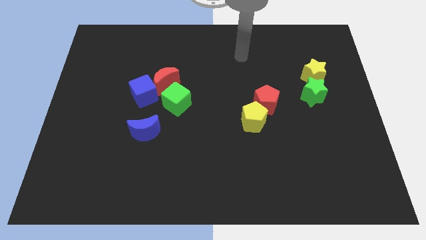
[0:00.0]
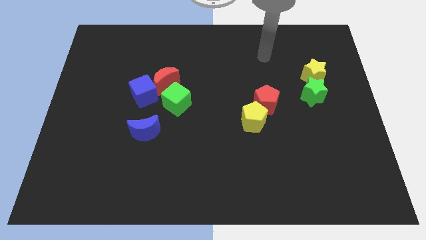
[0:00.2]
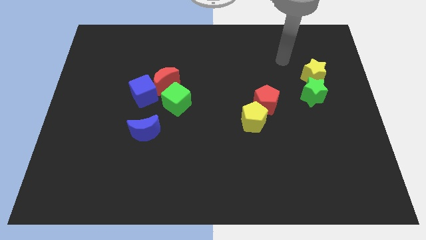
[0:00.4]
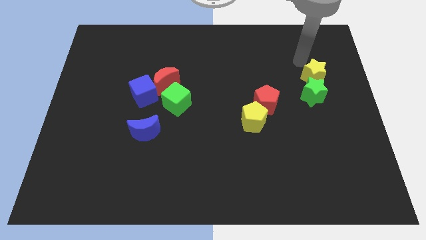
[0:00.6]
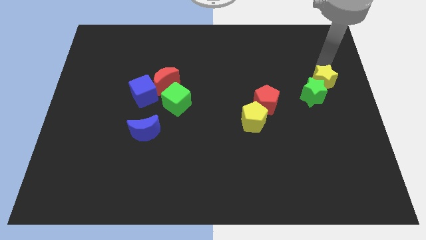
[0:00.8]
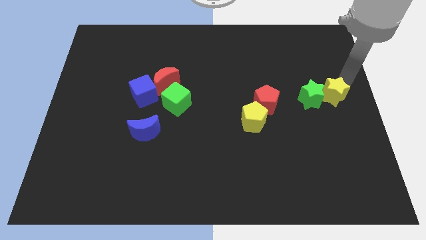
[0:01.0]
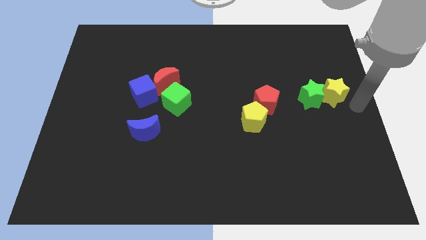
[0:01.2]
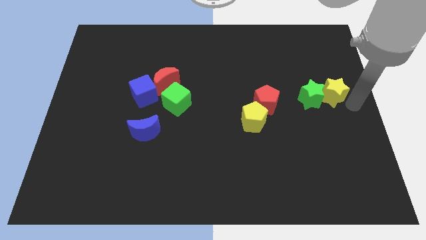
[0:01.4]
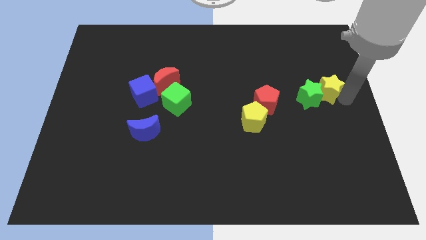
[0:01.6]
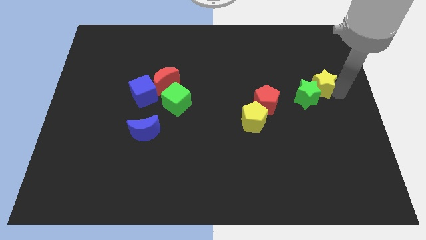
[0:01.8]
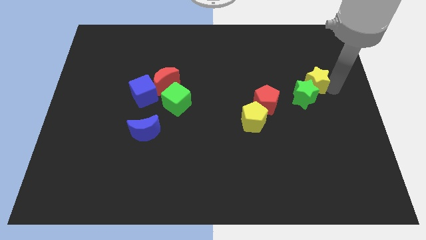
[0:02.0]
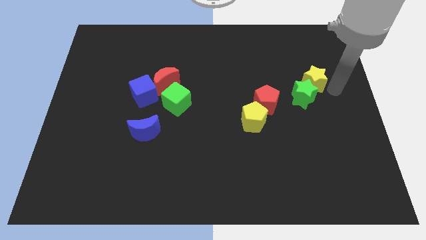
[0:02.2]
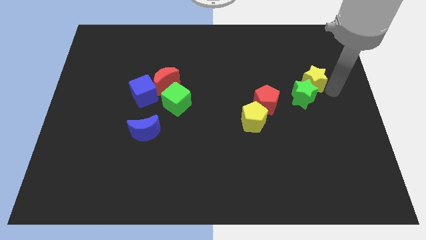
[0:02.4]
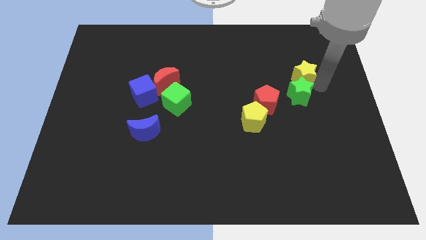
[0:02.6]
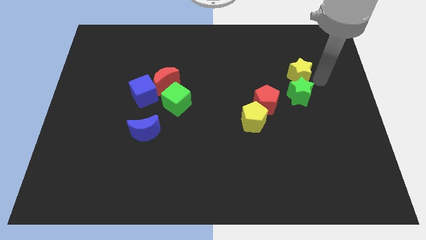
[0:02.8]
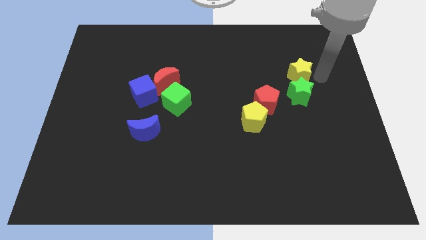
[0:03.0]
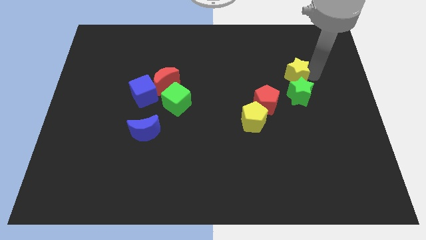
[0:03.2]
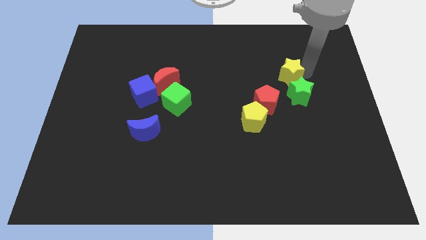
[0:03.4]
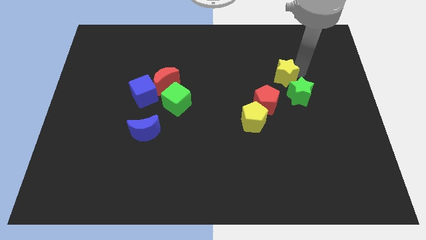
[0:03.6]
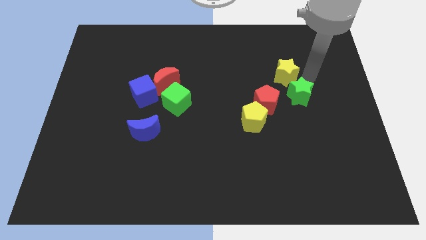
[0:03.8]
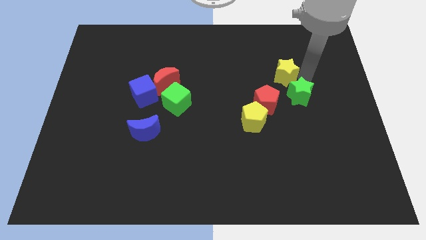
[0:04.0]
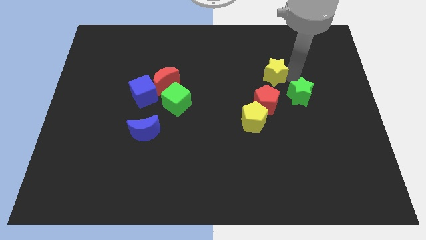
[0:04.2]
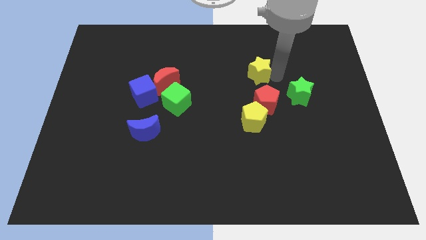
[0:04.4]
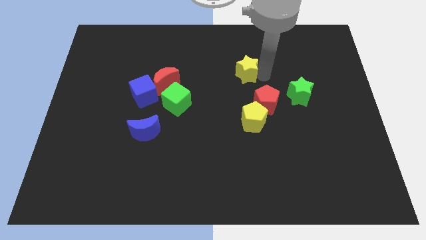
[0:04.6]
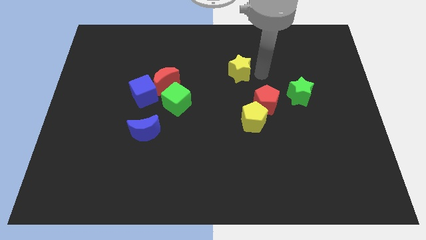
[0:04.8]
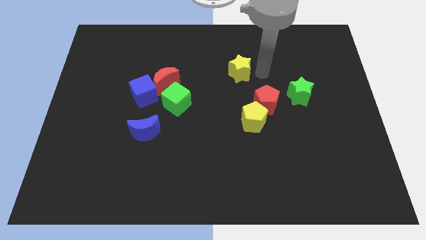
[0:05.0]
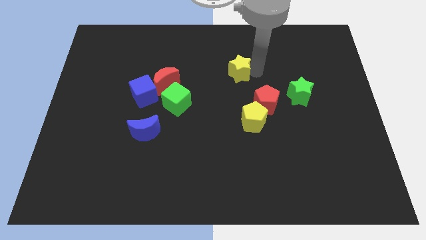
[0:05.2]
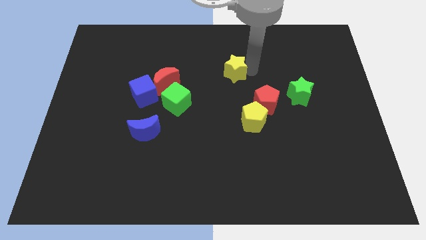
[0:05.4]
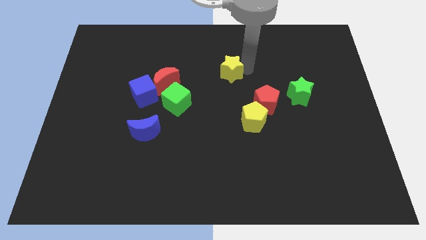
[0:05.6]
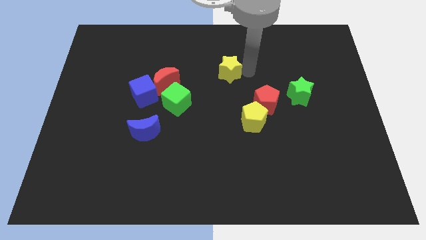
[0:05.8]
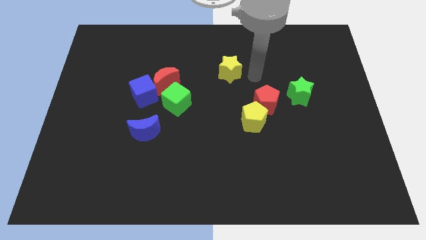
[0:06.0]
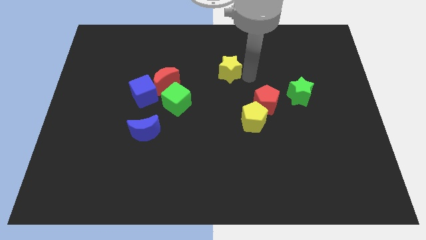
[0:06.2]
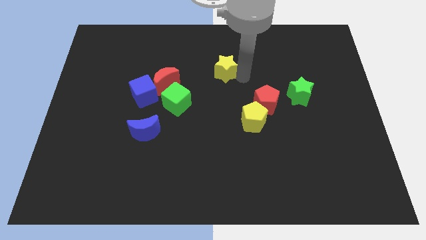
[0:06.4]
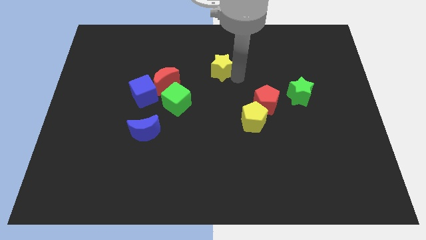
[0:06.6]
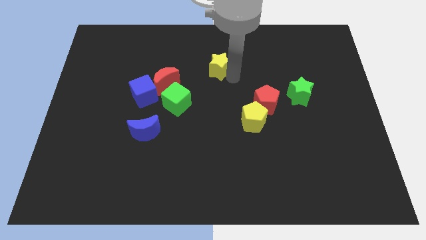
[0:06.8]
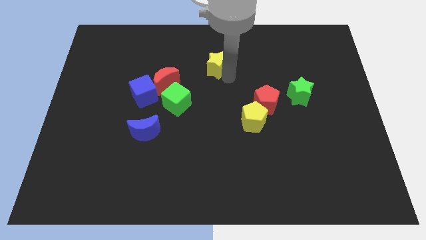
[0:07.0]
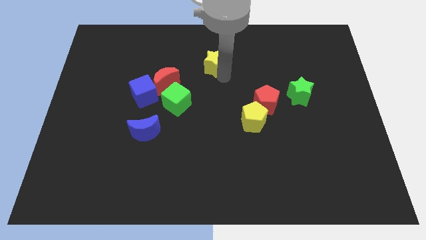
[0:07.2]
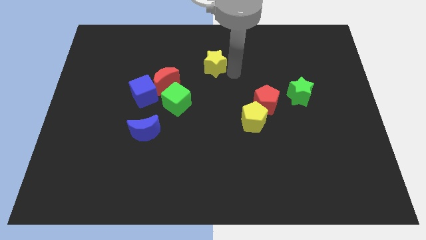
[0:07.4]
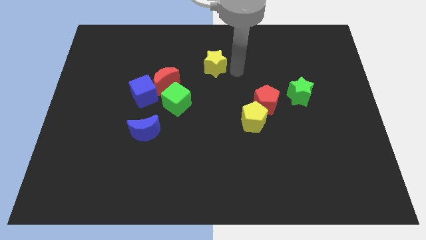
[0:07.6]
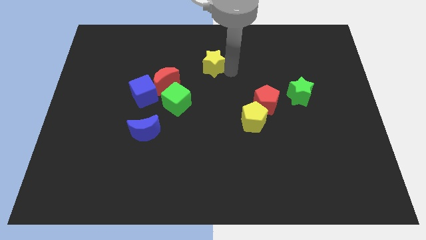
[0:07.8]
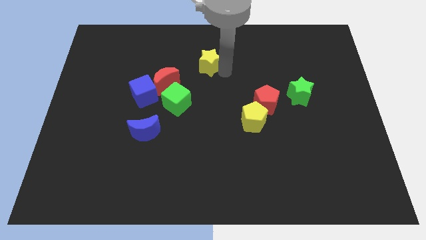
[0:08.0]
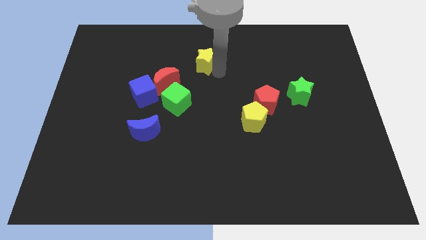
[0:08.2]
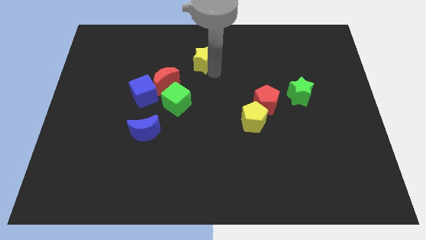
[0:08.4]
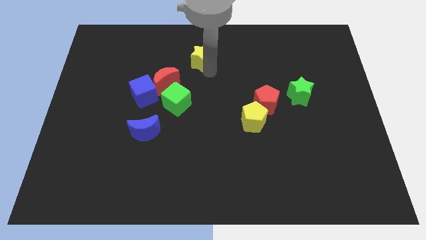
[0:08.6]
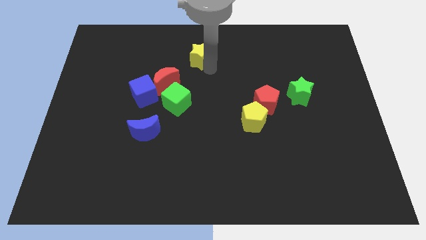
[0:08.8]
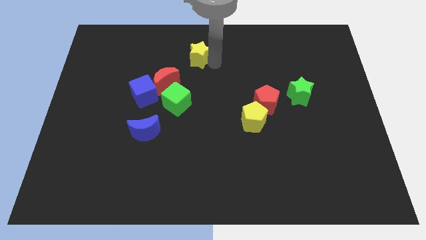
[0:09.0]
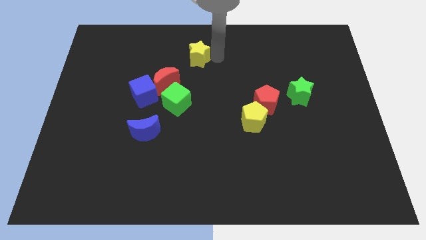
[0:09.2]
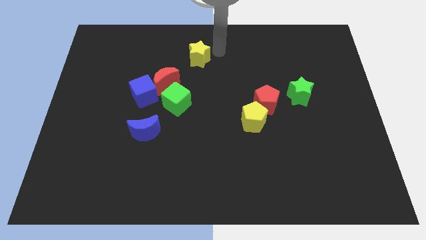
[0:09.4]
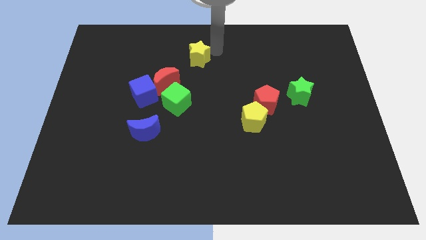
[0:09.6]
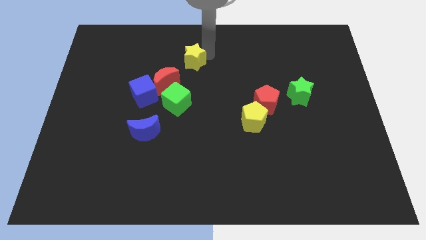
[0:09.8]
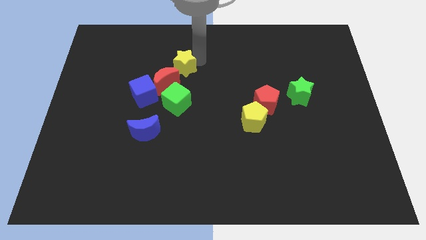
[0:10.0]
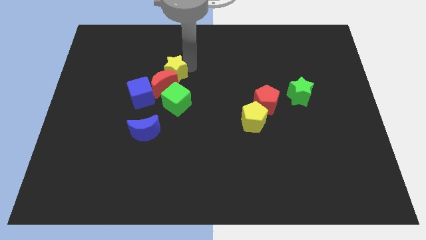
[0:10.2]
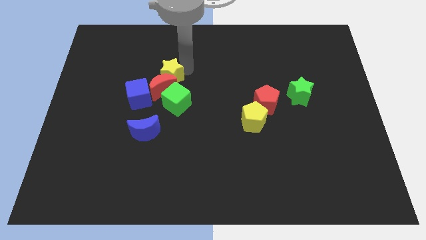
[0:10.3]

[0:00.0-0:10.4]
move the yellow star to the top left side of the red moon

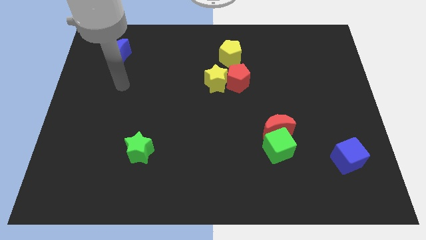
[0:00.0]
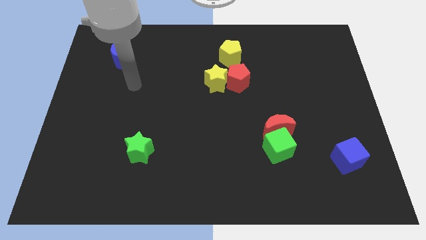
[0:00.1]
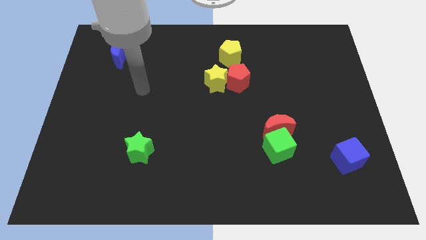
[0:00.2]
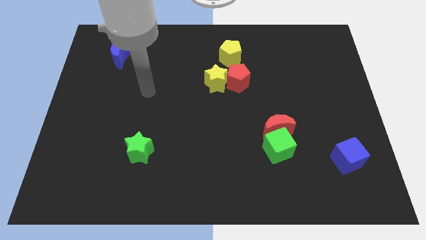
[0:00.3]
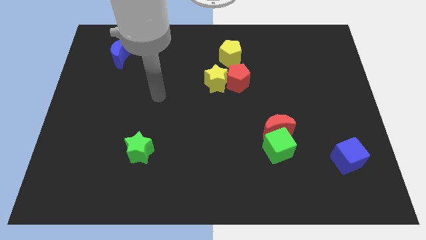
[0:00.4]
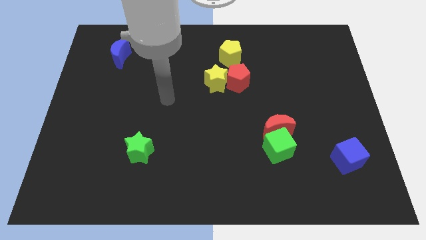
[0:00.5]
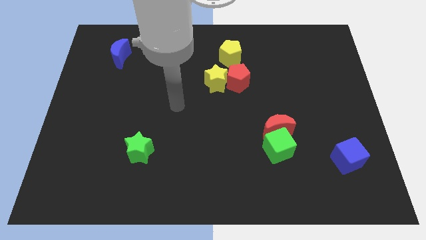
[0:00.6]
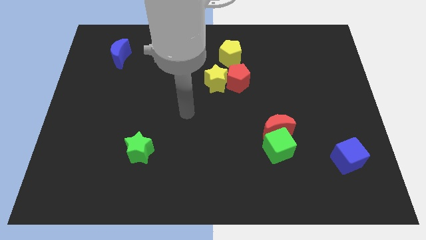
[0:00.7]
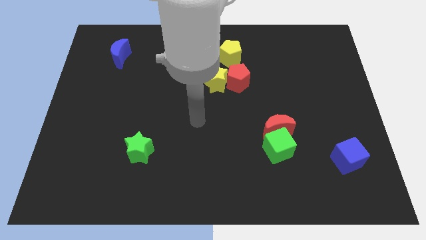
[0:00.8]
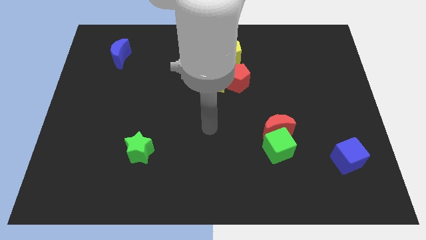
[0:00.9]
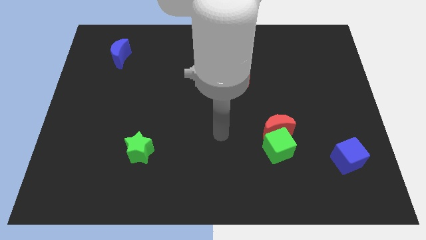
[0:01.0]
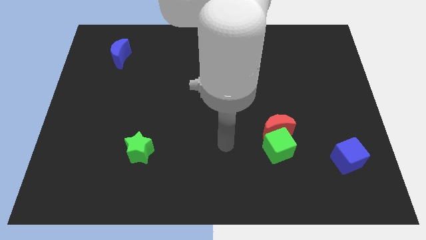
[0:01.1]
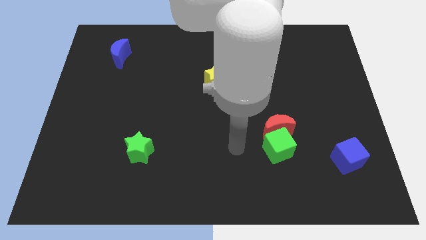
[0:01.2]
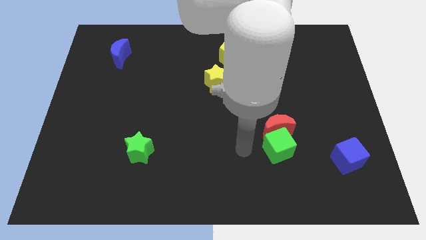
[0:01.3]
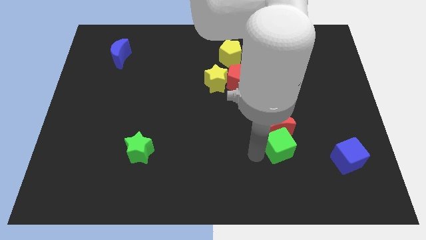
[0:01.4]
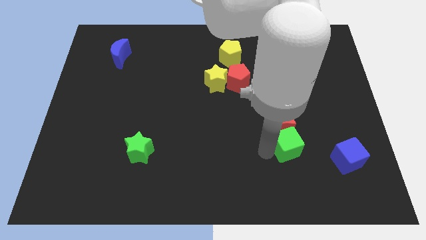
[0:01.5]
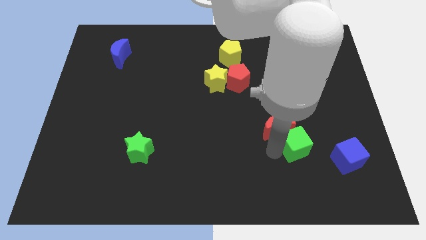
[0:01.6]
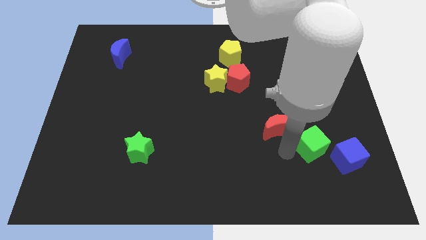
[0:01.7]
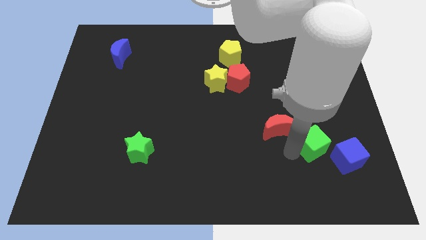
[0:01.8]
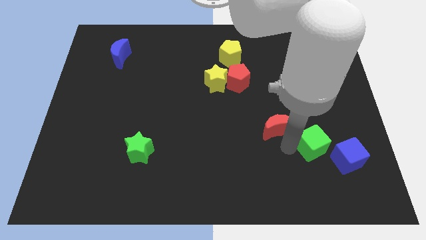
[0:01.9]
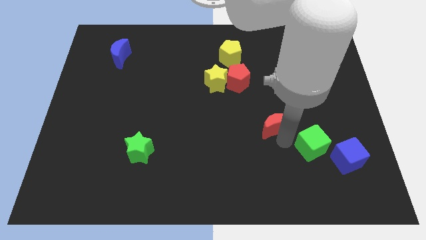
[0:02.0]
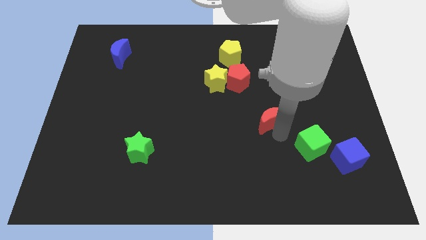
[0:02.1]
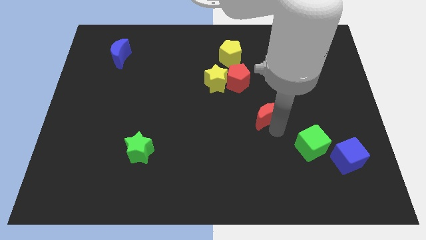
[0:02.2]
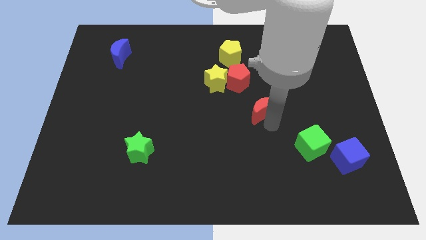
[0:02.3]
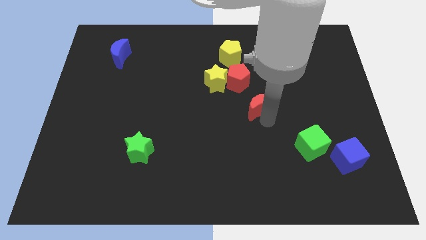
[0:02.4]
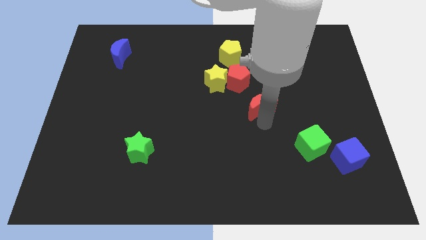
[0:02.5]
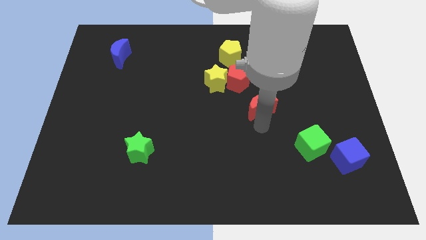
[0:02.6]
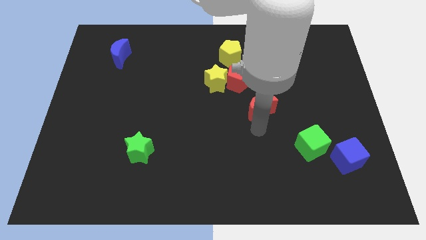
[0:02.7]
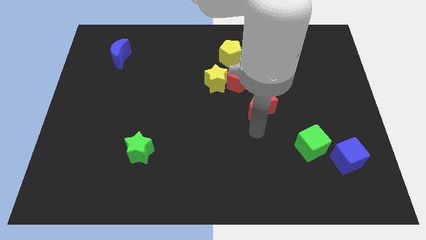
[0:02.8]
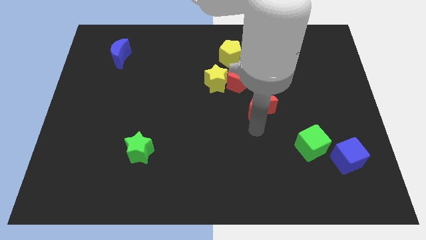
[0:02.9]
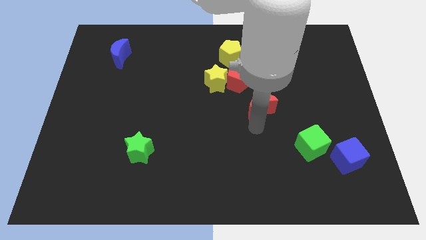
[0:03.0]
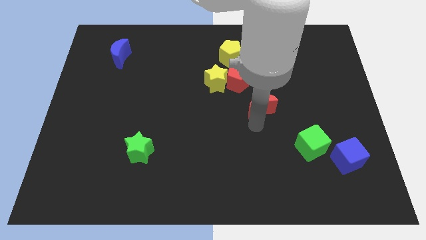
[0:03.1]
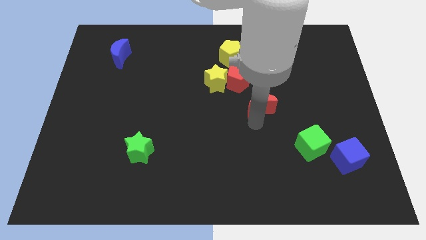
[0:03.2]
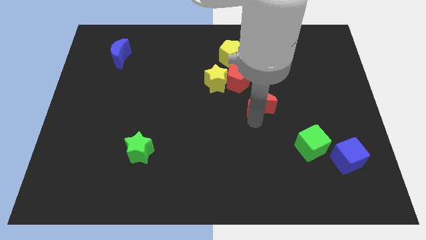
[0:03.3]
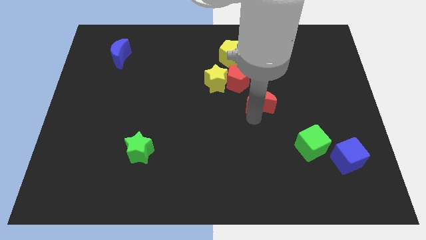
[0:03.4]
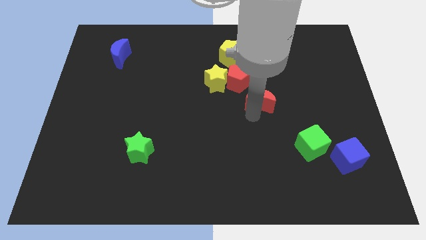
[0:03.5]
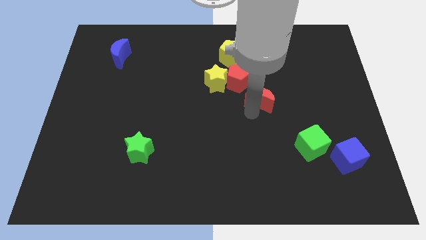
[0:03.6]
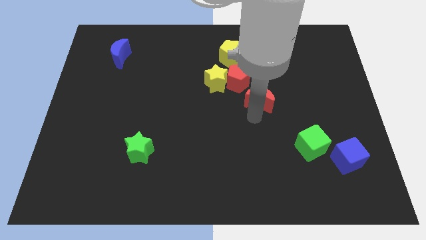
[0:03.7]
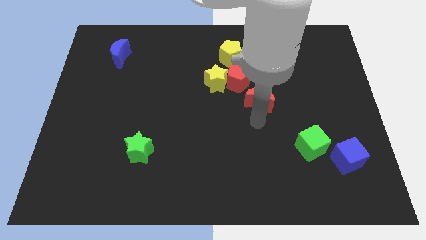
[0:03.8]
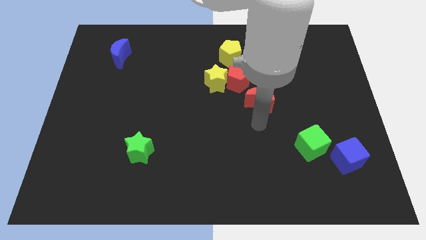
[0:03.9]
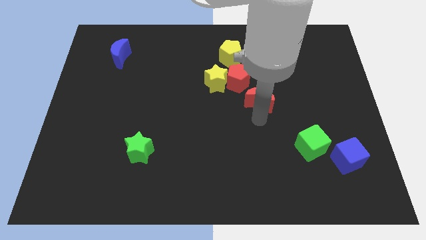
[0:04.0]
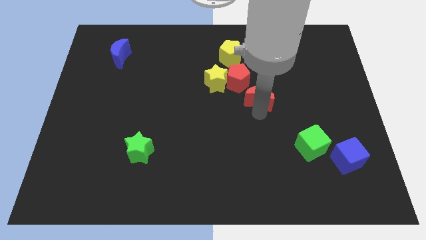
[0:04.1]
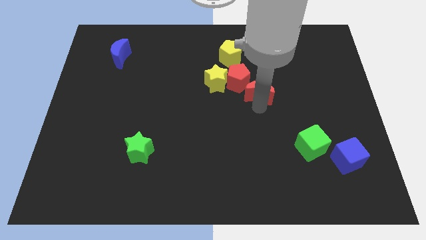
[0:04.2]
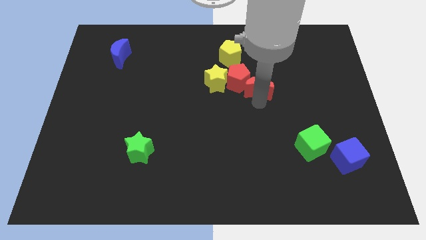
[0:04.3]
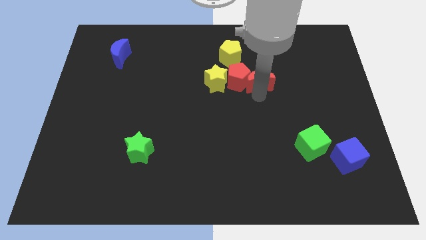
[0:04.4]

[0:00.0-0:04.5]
put the red moon diagonally up and to the right of the red pentagon
